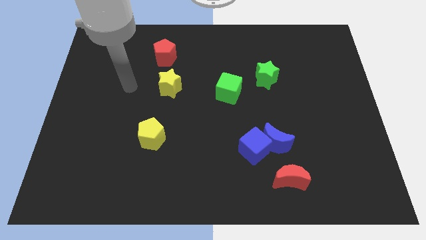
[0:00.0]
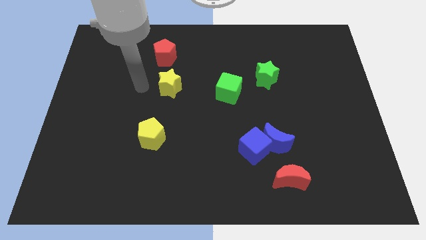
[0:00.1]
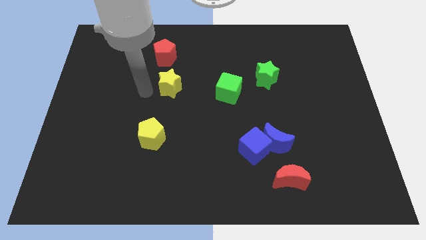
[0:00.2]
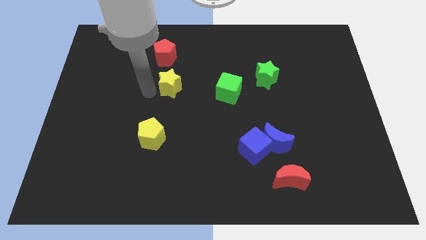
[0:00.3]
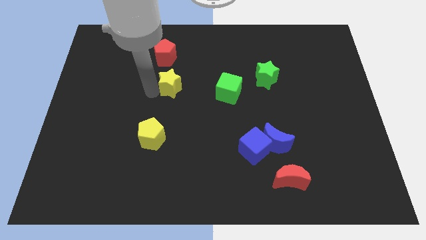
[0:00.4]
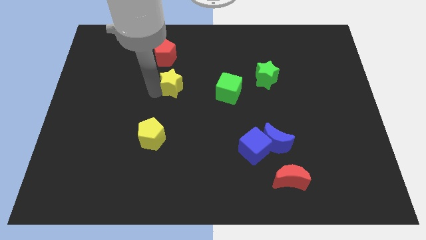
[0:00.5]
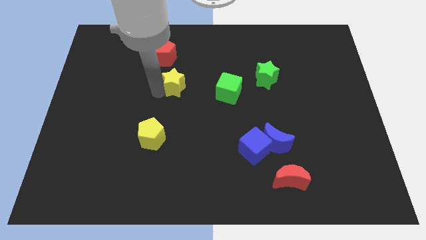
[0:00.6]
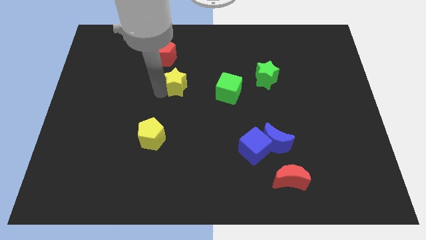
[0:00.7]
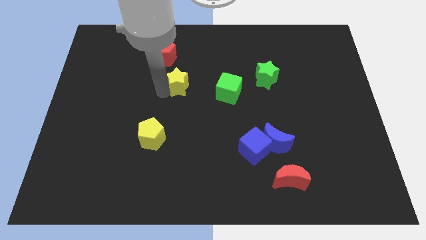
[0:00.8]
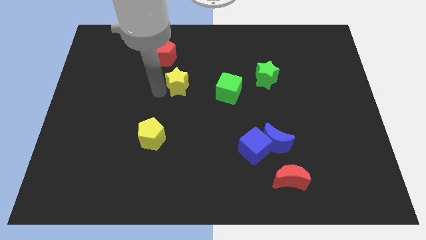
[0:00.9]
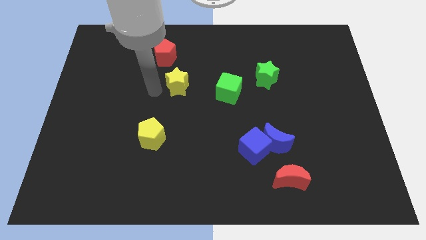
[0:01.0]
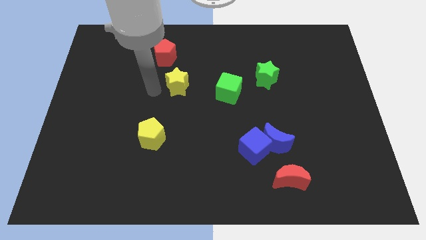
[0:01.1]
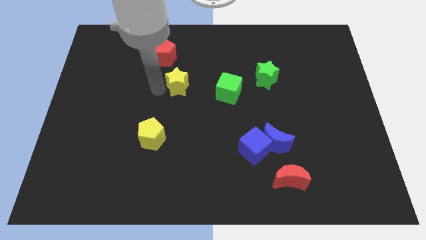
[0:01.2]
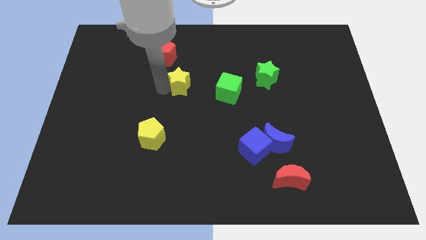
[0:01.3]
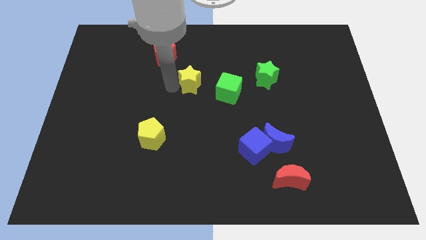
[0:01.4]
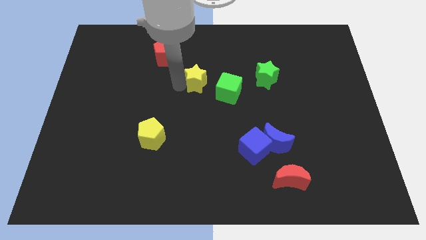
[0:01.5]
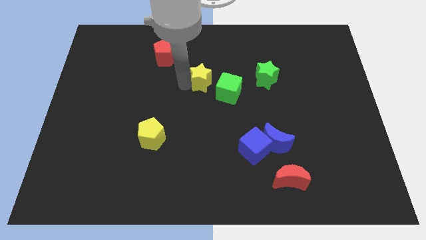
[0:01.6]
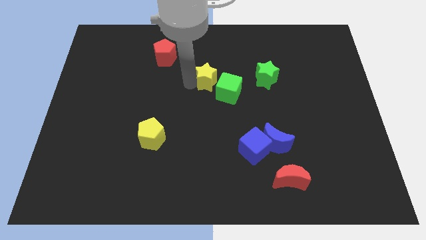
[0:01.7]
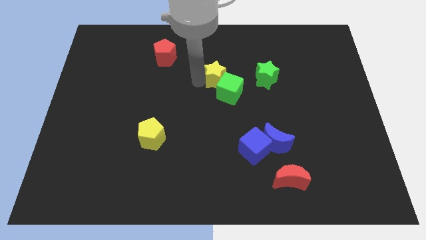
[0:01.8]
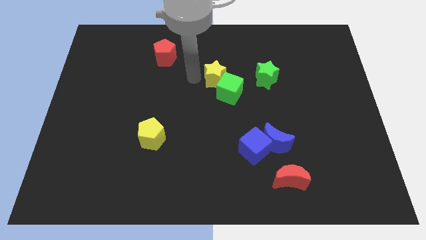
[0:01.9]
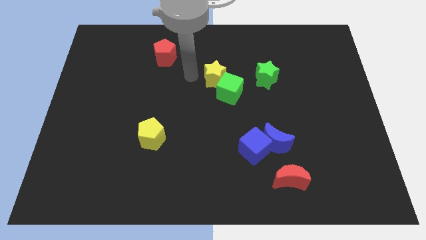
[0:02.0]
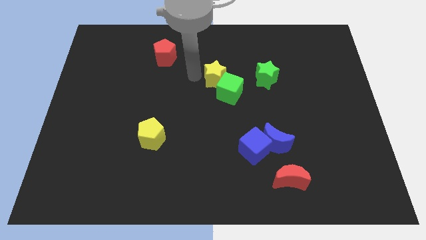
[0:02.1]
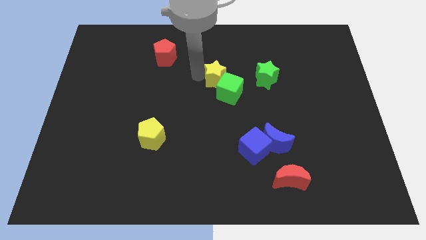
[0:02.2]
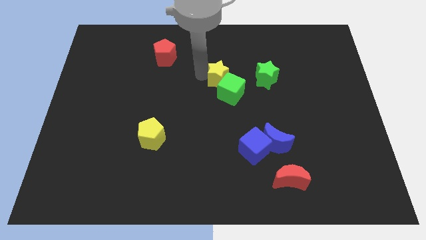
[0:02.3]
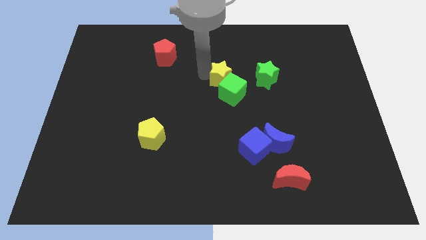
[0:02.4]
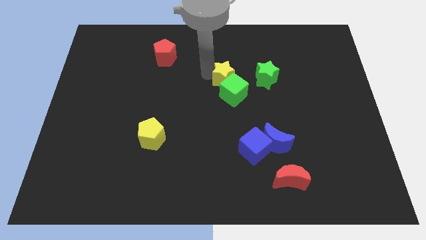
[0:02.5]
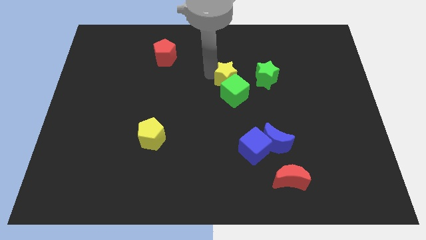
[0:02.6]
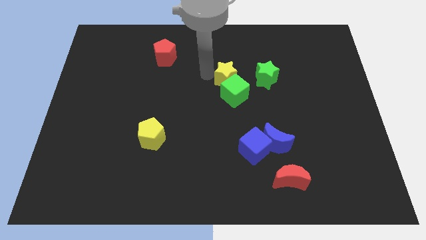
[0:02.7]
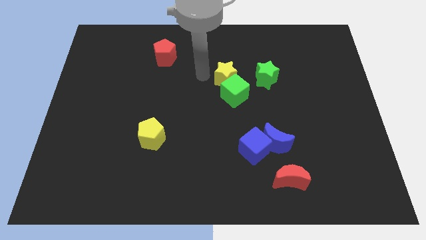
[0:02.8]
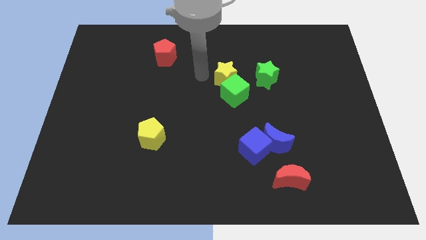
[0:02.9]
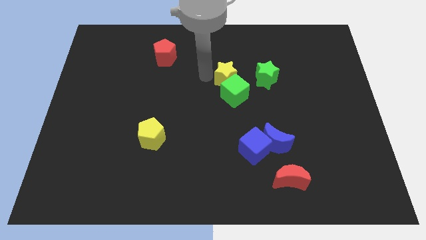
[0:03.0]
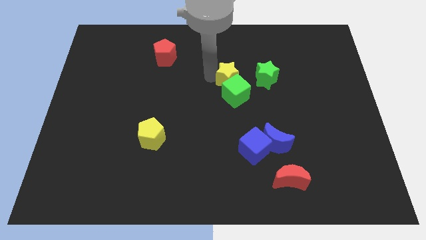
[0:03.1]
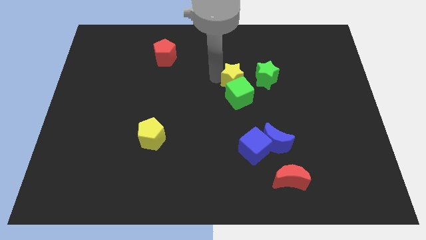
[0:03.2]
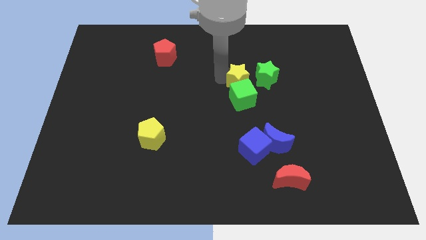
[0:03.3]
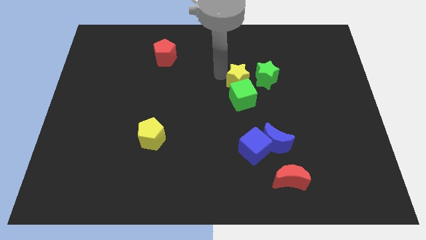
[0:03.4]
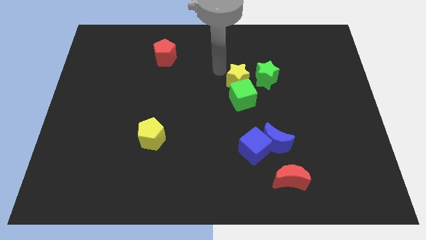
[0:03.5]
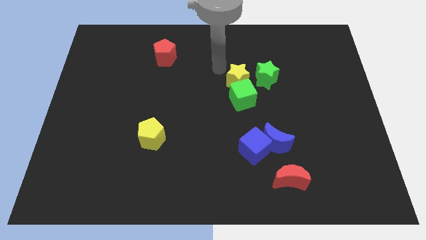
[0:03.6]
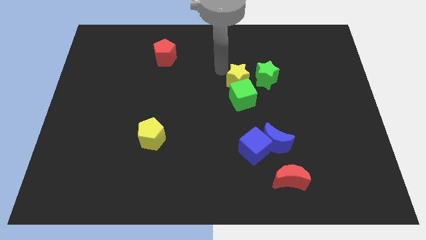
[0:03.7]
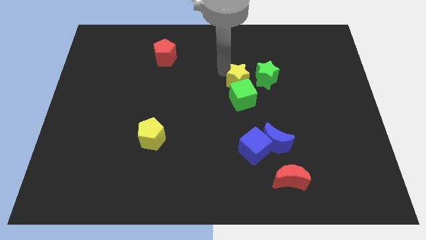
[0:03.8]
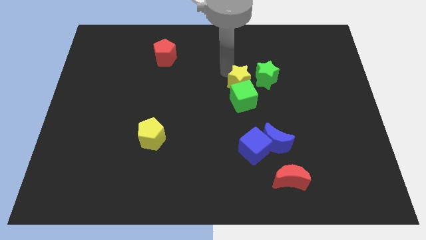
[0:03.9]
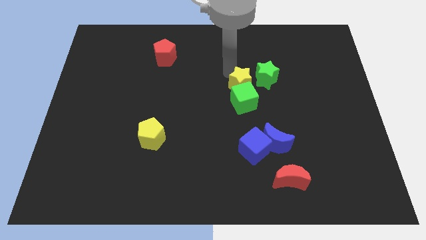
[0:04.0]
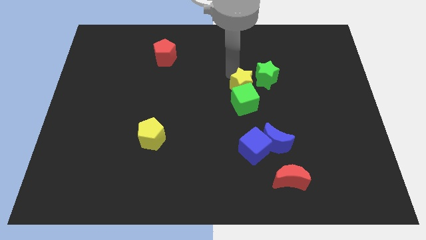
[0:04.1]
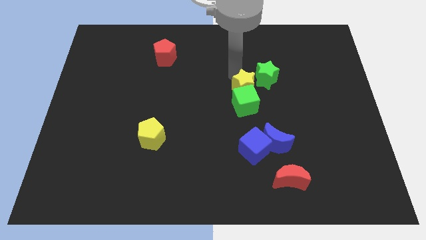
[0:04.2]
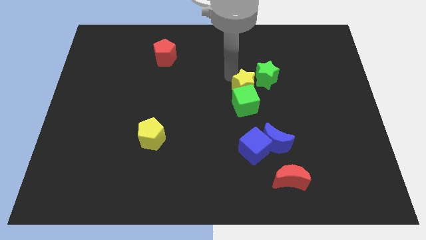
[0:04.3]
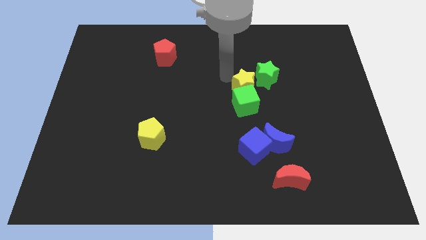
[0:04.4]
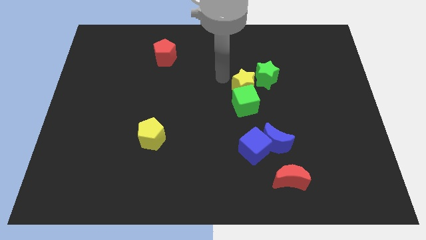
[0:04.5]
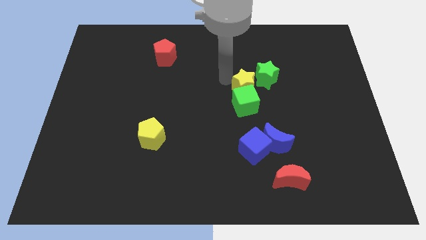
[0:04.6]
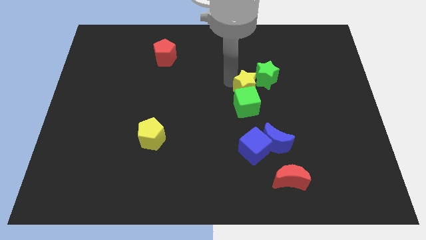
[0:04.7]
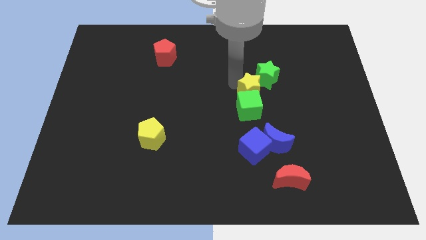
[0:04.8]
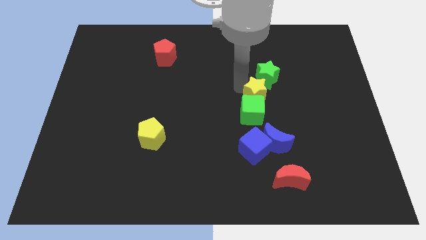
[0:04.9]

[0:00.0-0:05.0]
push the yellow star right

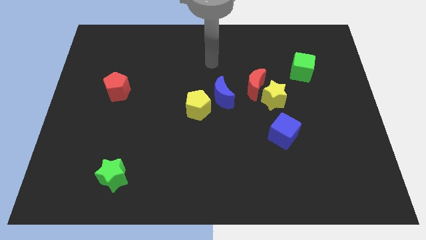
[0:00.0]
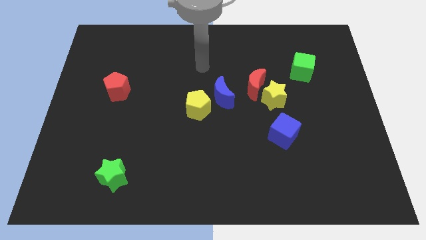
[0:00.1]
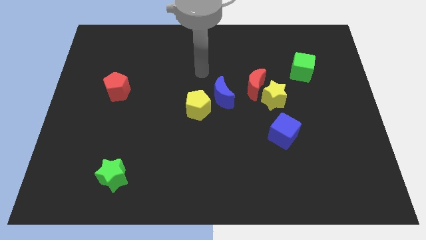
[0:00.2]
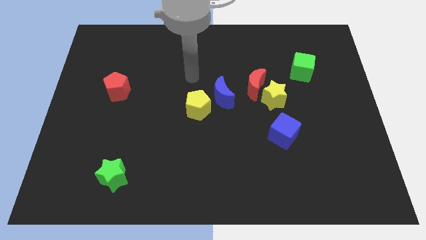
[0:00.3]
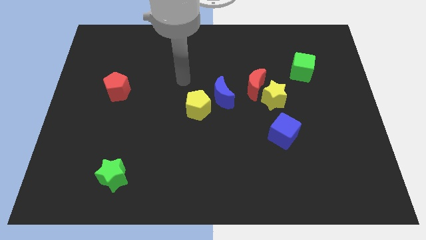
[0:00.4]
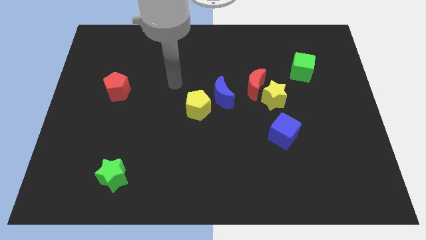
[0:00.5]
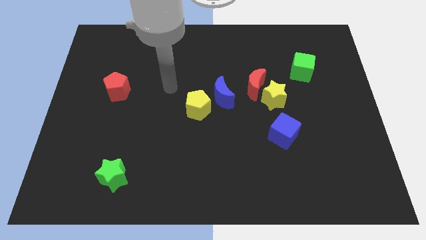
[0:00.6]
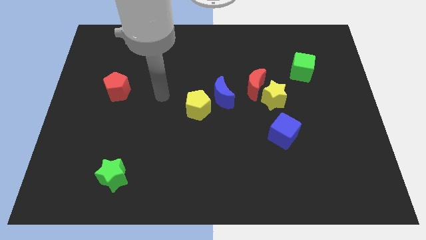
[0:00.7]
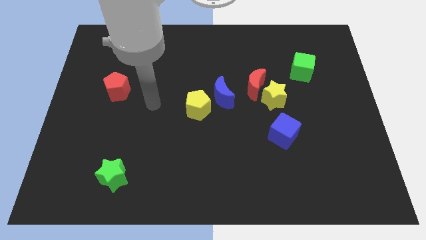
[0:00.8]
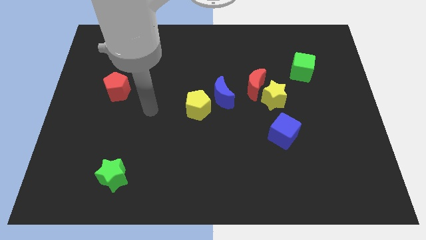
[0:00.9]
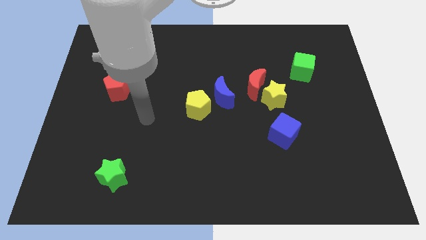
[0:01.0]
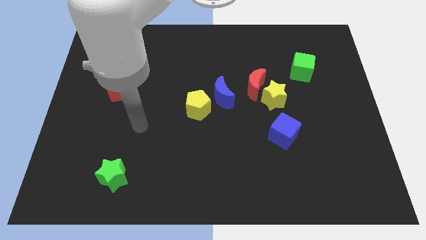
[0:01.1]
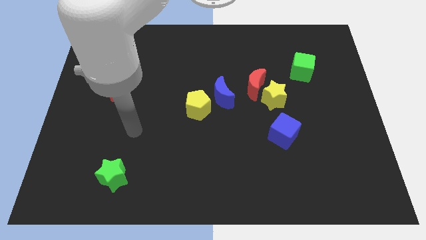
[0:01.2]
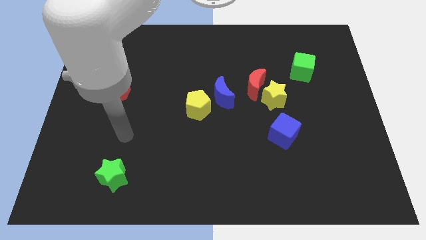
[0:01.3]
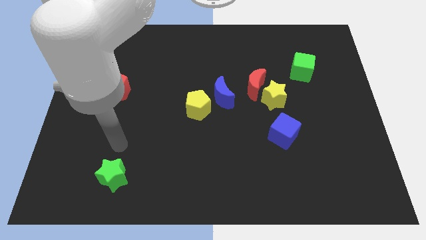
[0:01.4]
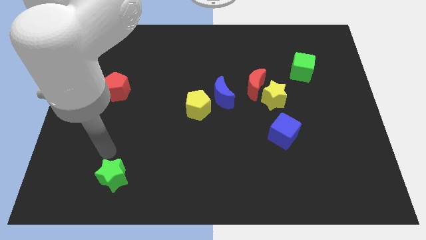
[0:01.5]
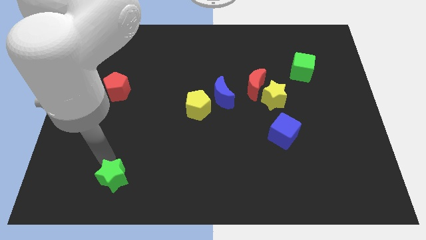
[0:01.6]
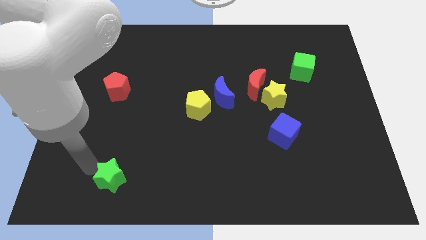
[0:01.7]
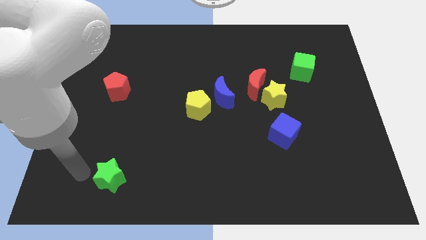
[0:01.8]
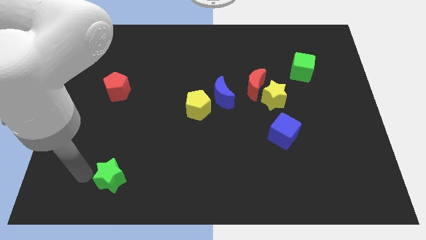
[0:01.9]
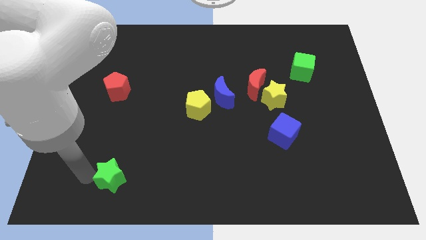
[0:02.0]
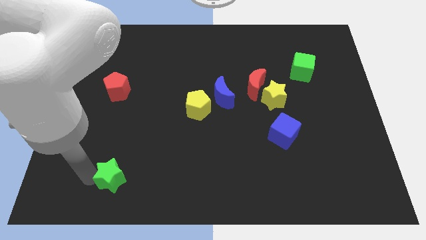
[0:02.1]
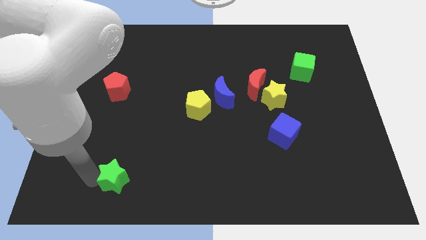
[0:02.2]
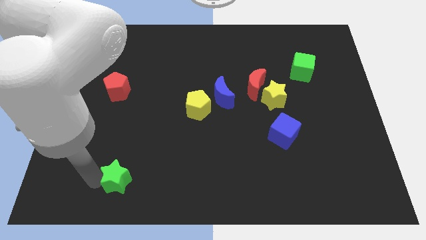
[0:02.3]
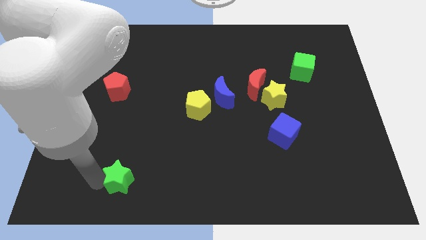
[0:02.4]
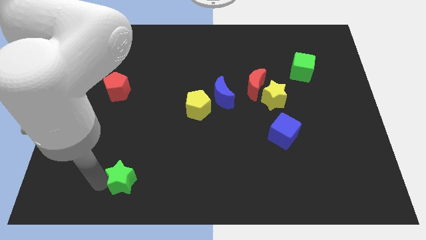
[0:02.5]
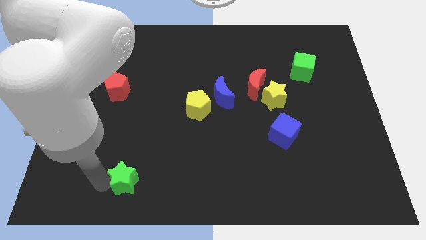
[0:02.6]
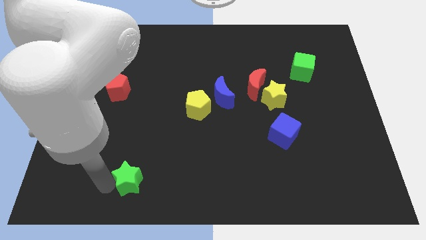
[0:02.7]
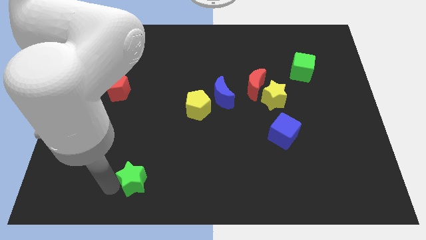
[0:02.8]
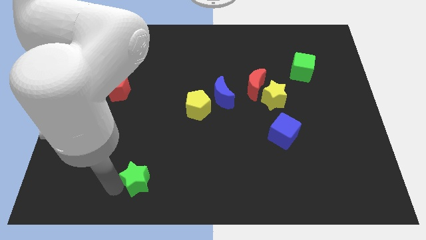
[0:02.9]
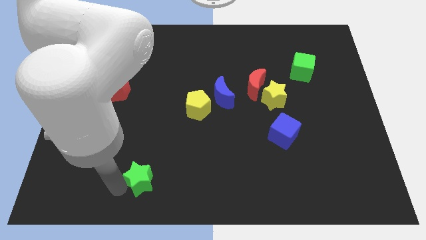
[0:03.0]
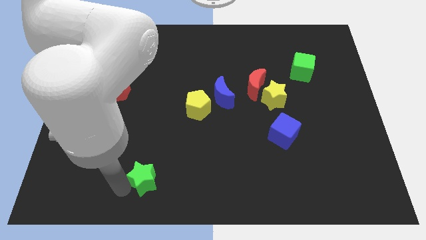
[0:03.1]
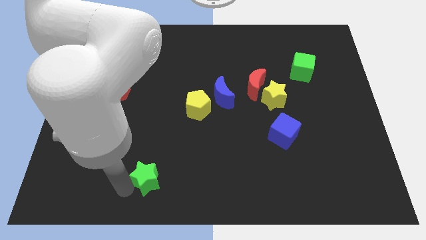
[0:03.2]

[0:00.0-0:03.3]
move the green star to the right somewhat

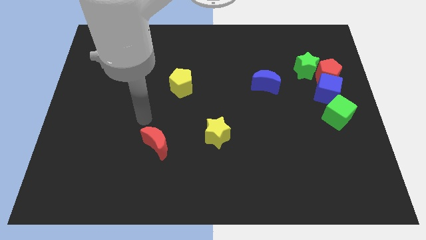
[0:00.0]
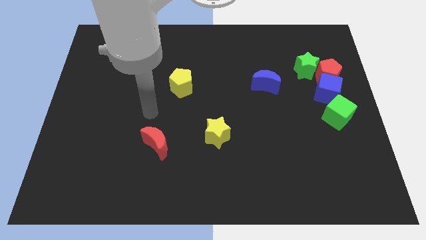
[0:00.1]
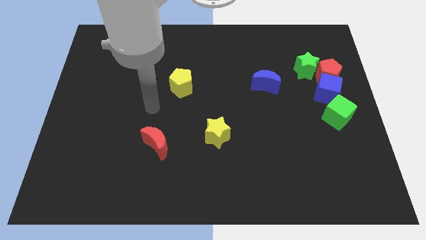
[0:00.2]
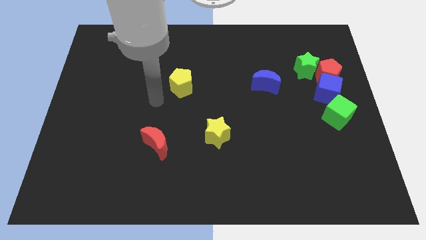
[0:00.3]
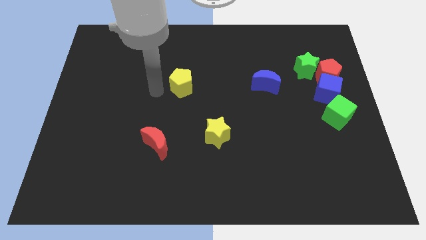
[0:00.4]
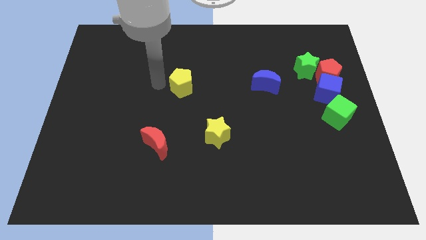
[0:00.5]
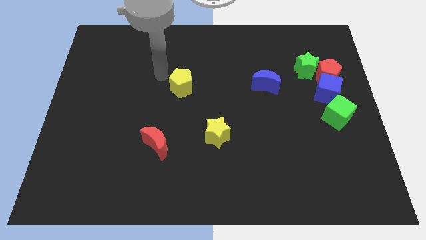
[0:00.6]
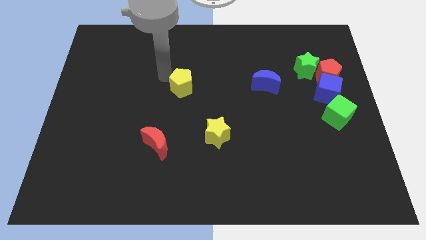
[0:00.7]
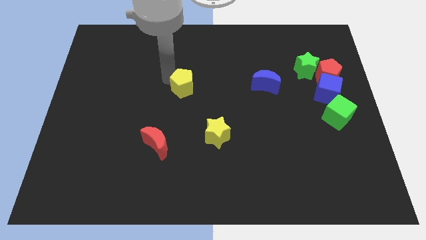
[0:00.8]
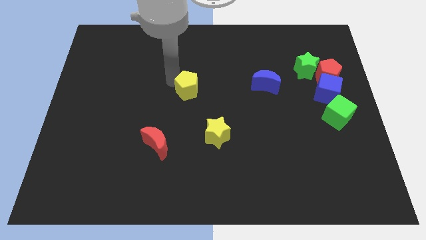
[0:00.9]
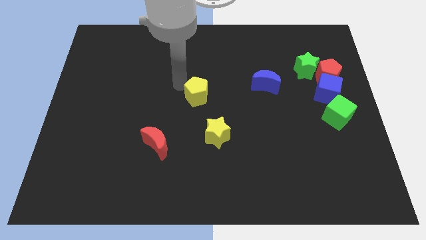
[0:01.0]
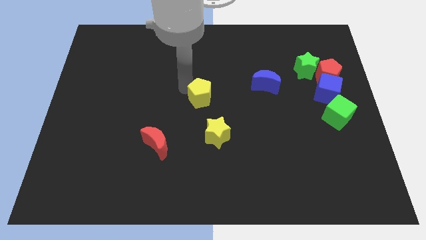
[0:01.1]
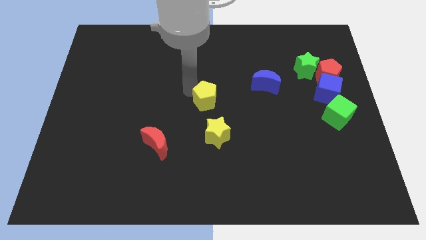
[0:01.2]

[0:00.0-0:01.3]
slightly slide the yellow pentagon down and to the right diagonally
